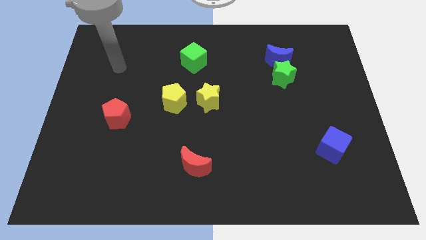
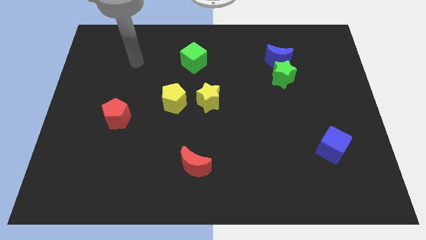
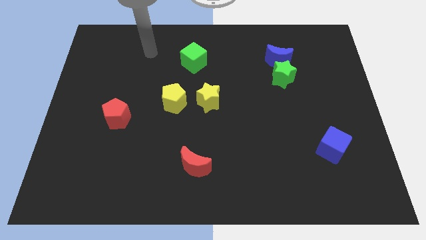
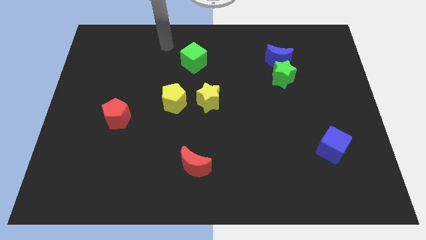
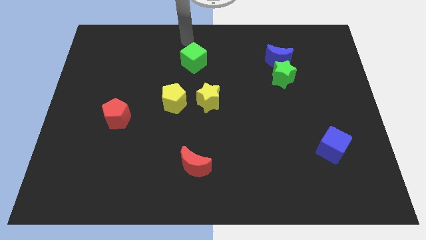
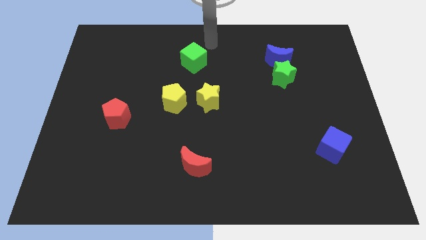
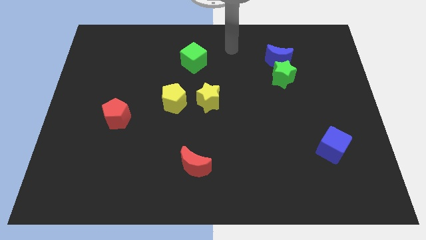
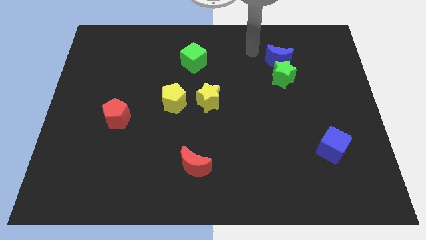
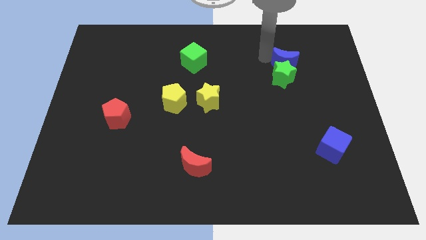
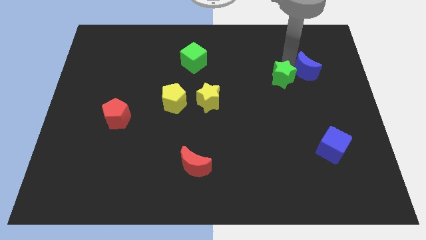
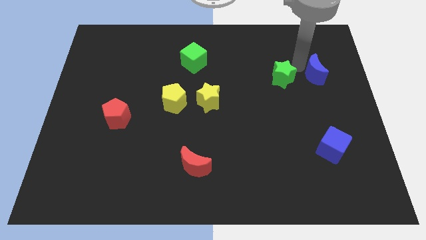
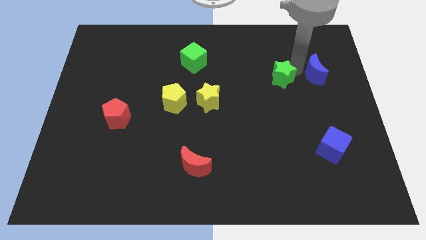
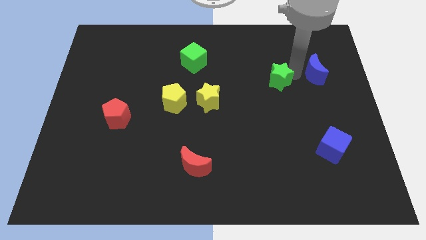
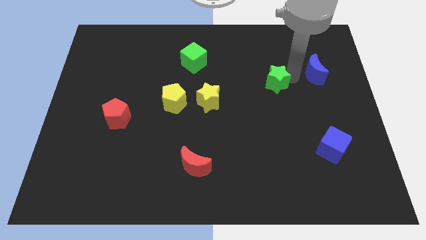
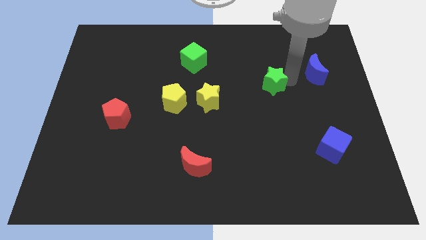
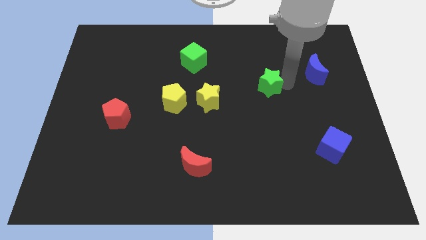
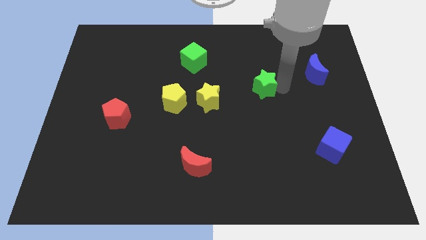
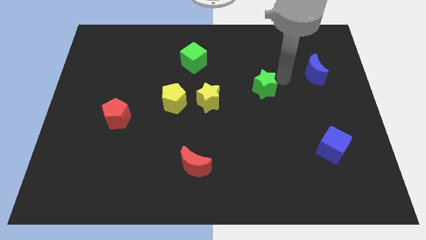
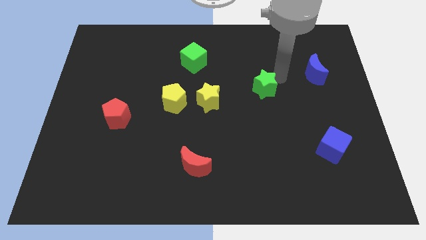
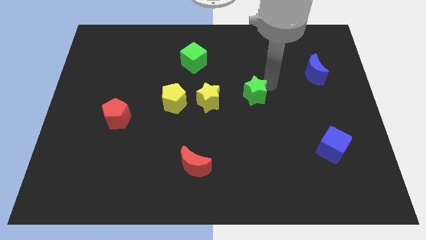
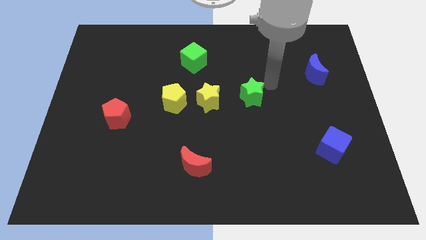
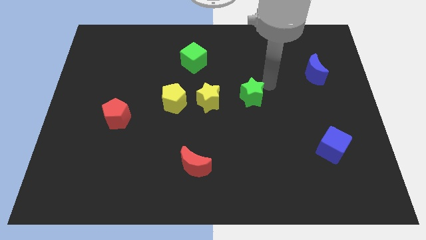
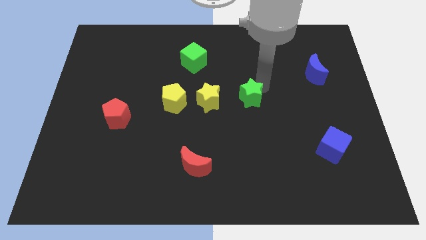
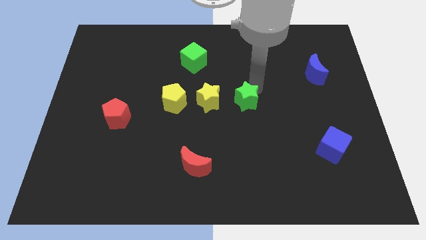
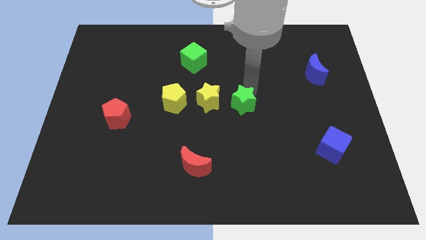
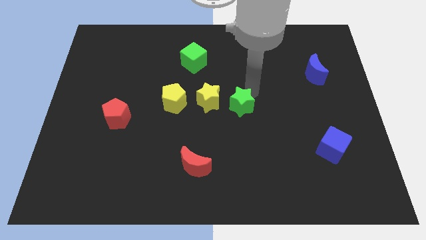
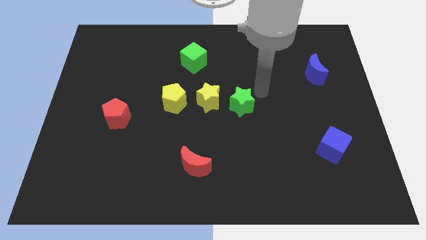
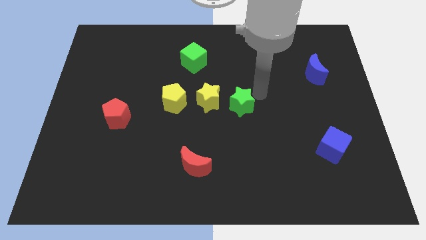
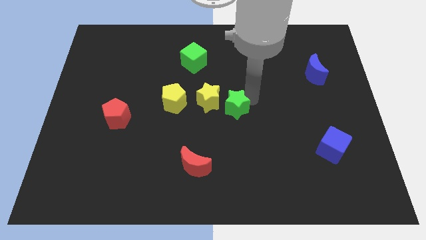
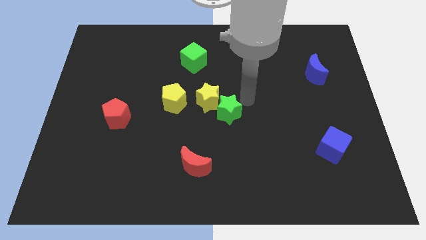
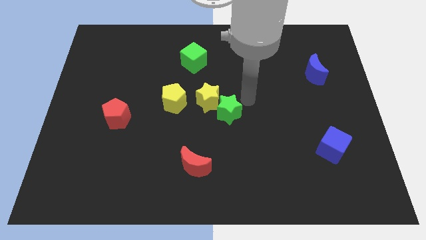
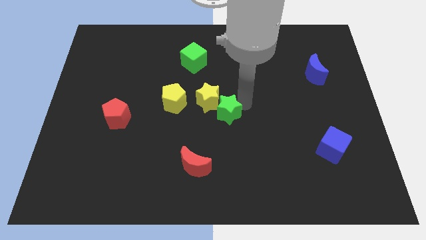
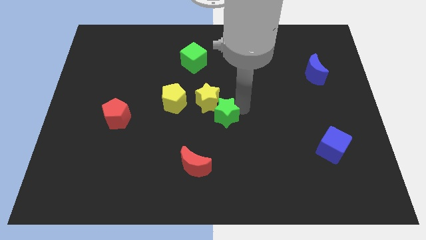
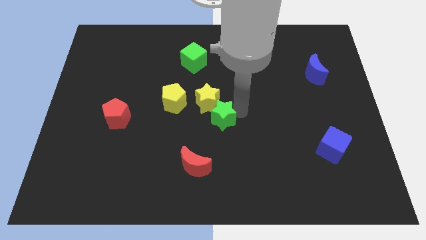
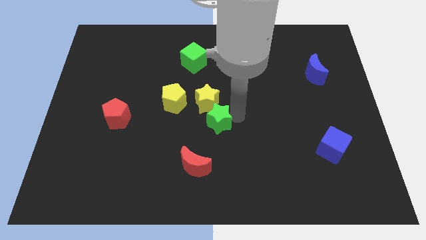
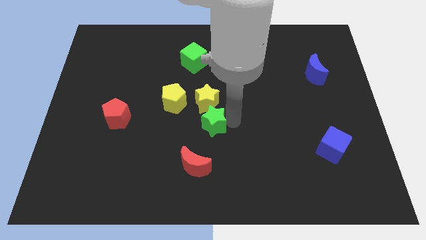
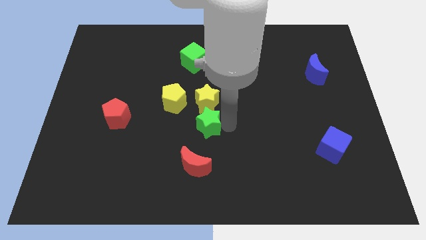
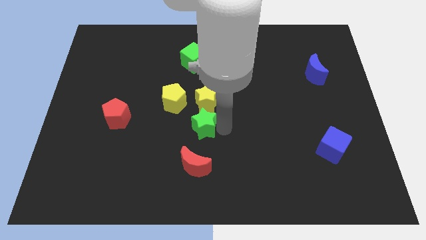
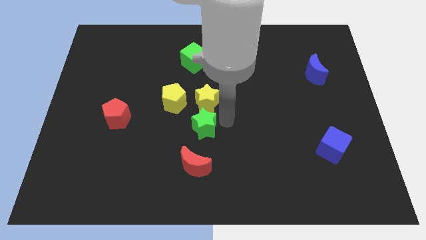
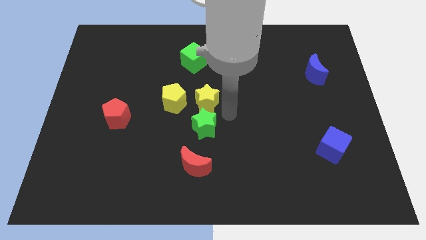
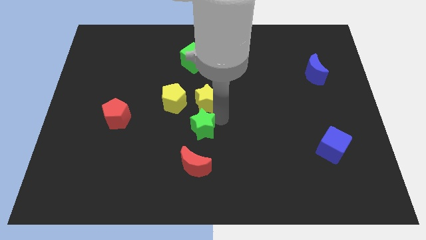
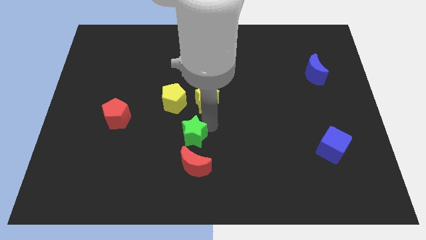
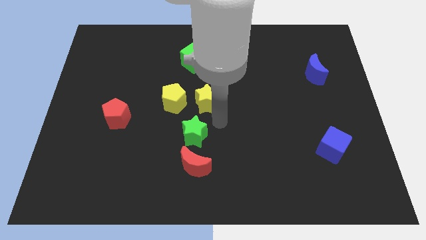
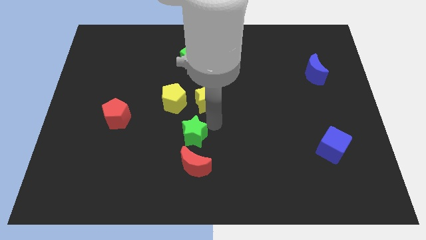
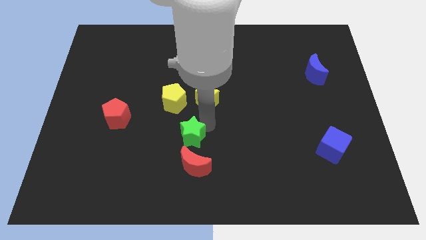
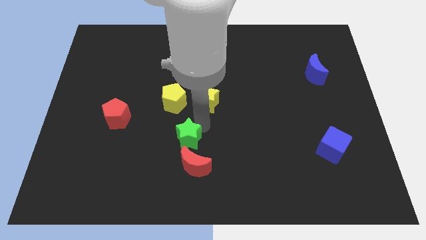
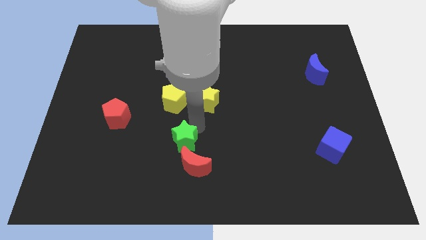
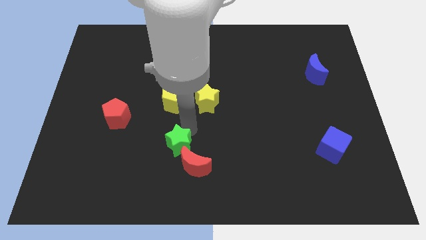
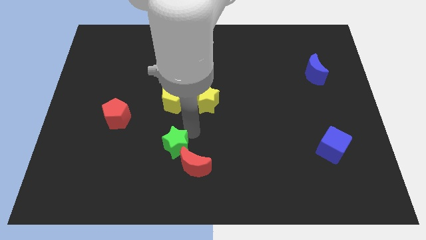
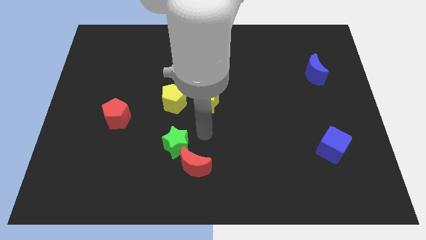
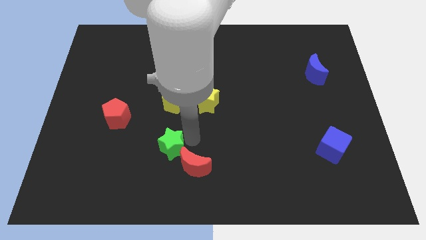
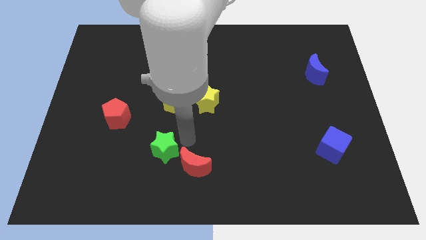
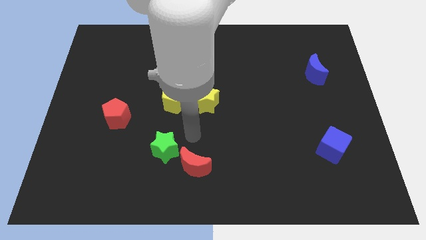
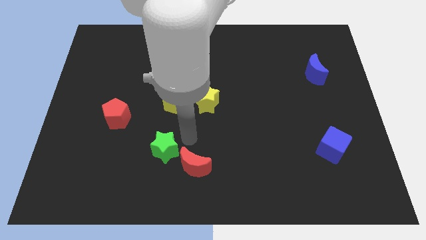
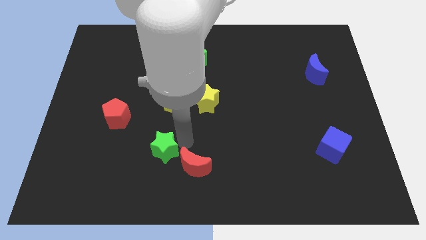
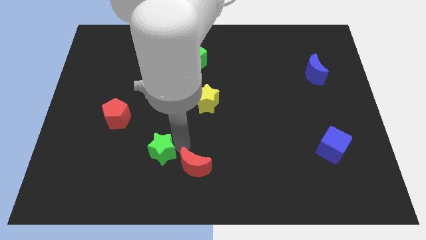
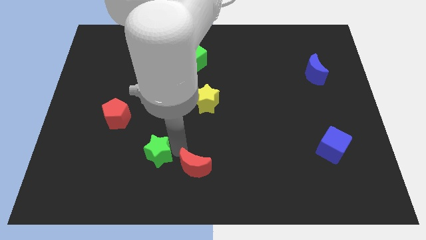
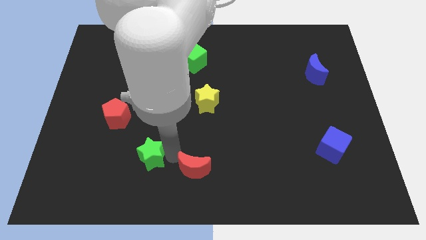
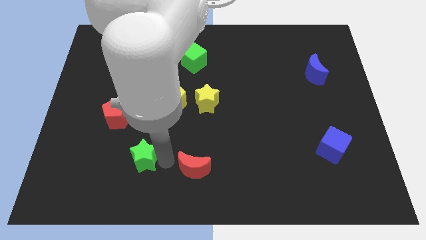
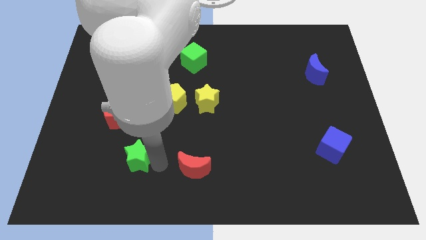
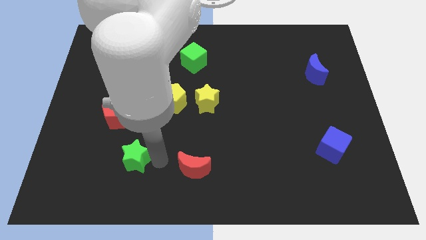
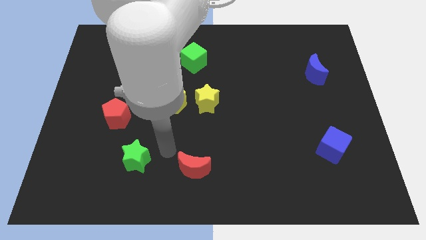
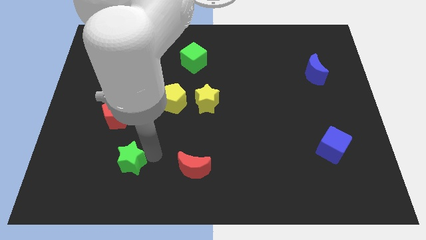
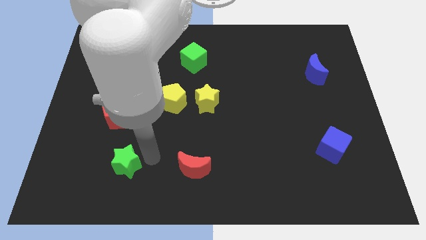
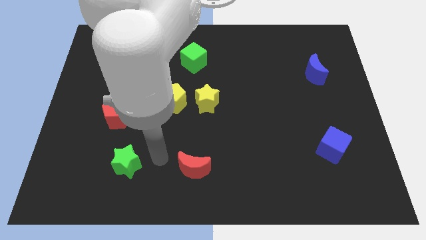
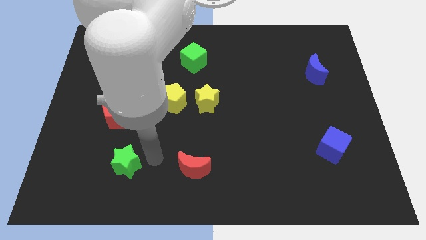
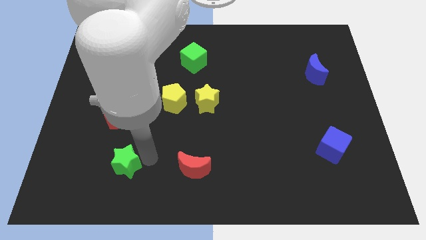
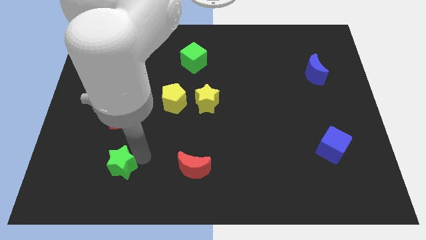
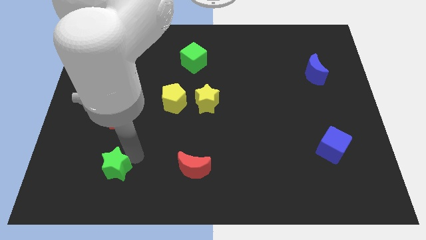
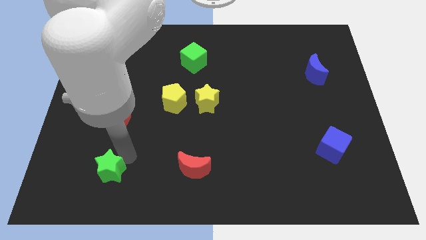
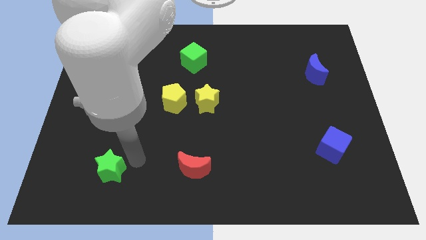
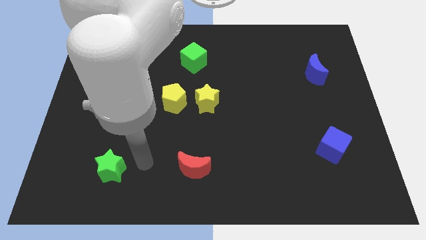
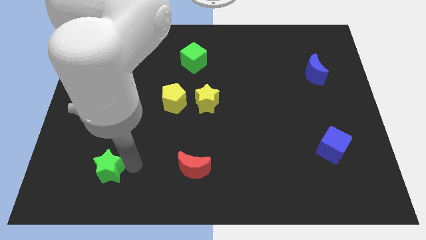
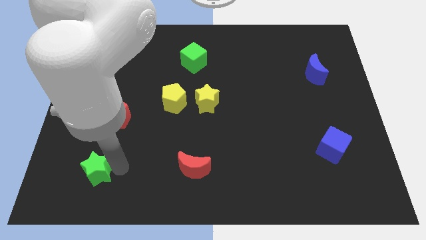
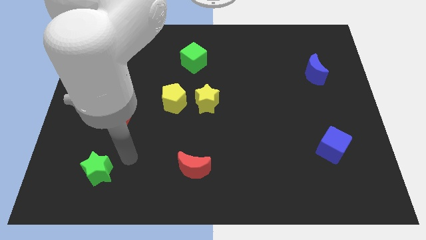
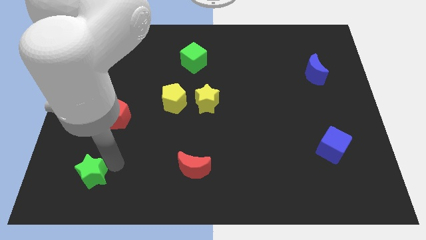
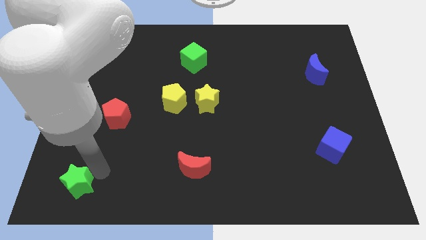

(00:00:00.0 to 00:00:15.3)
push the green star to the bottom left corner
